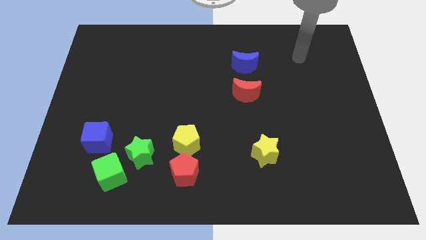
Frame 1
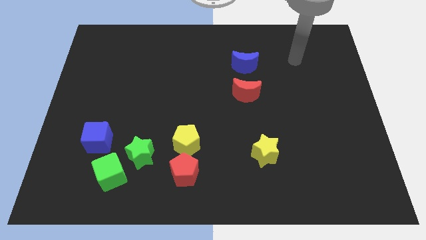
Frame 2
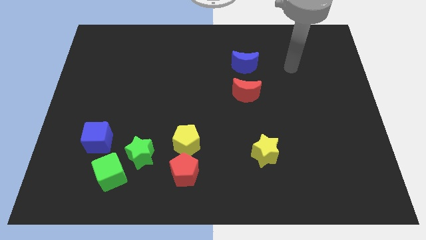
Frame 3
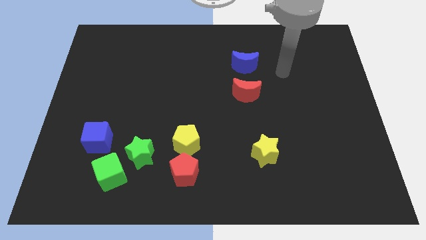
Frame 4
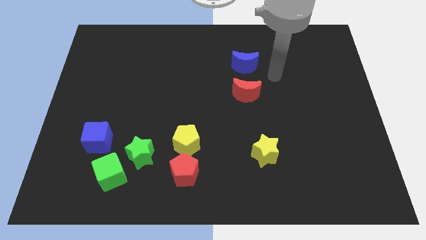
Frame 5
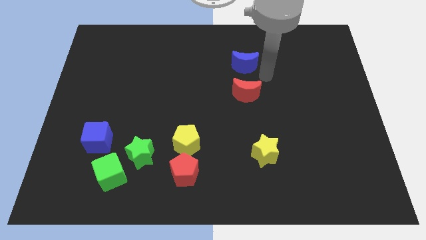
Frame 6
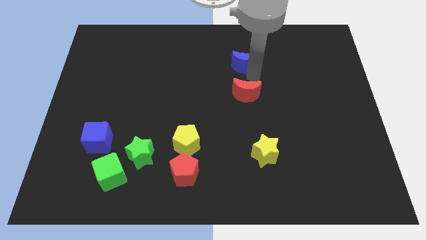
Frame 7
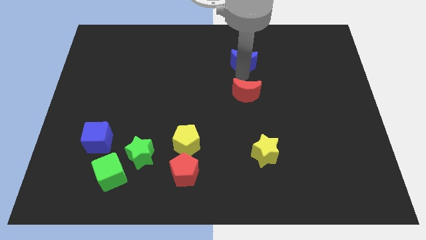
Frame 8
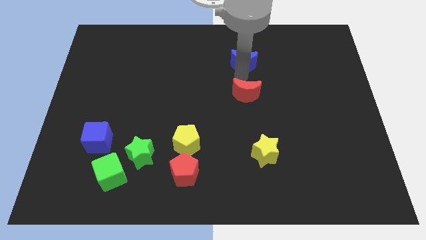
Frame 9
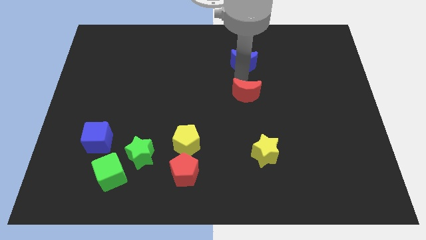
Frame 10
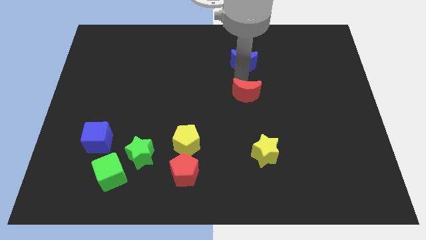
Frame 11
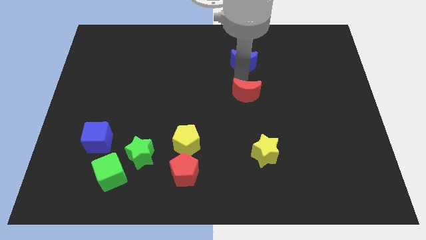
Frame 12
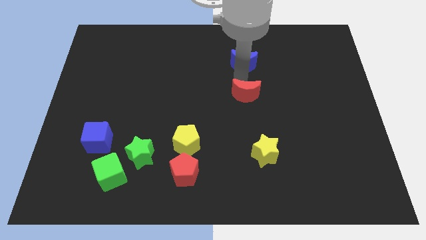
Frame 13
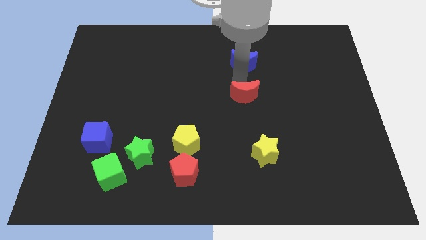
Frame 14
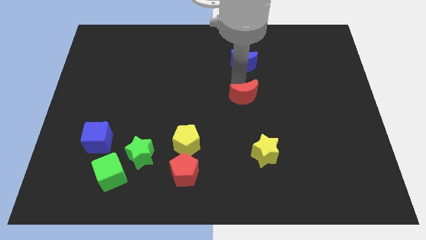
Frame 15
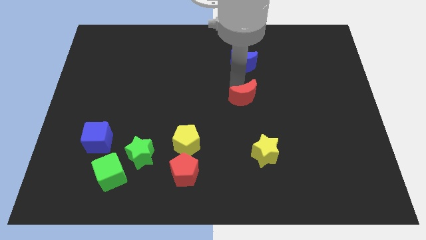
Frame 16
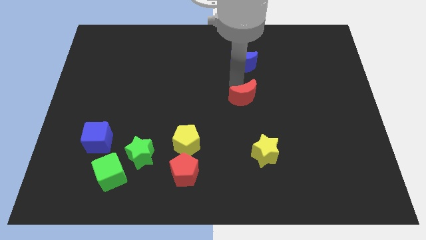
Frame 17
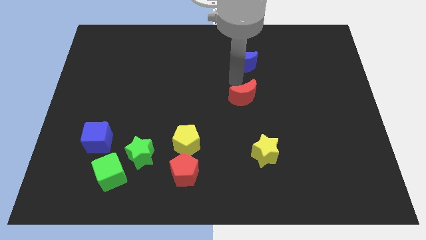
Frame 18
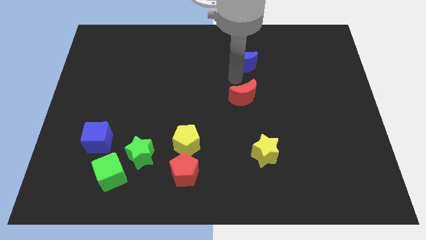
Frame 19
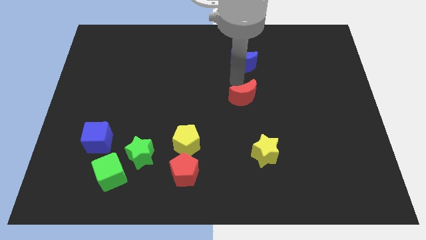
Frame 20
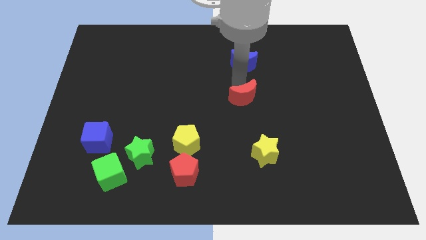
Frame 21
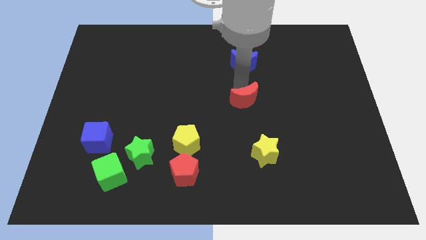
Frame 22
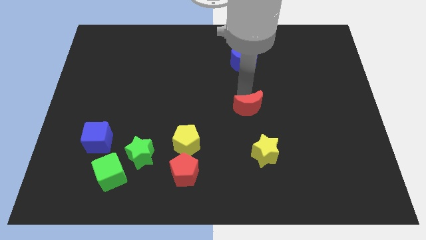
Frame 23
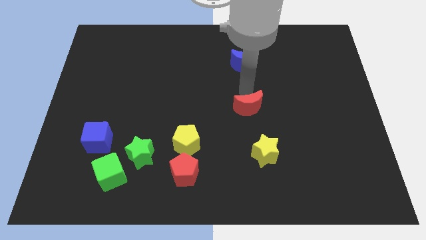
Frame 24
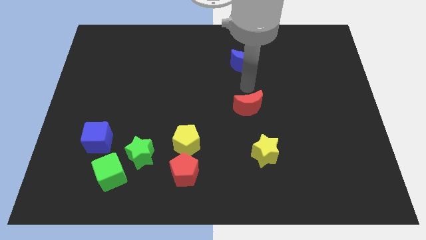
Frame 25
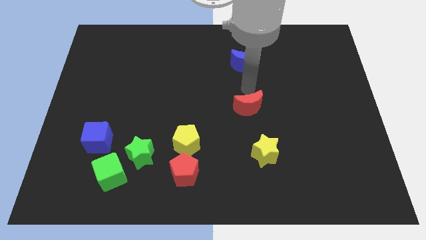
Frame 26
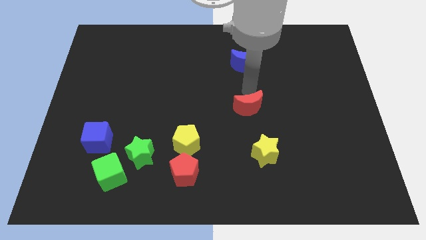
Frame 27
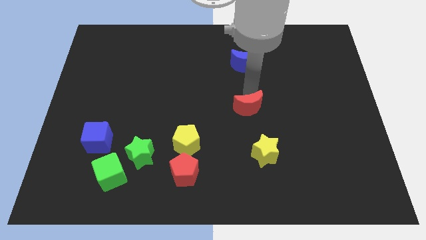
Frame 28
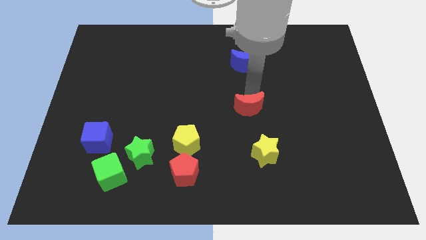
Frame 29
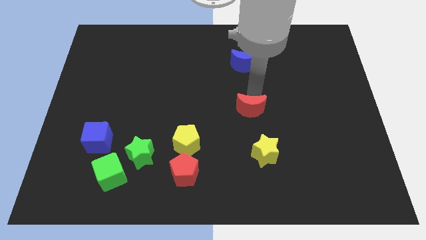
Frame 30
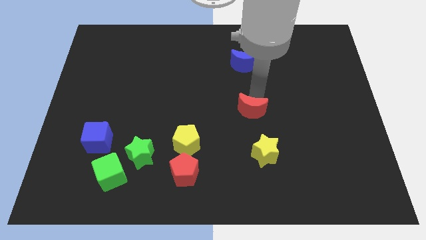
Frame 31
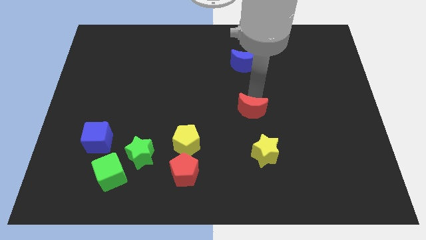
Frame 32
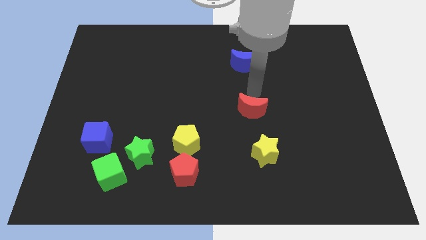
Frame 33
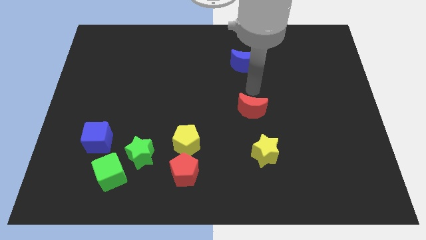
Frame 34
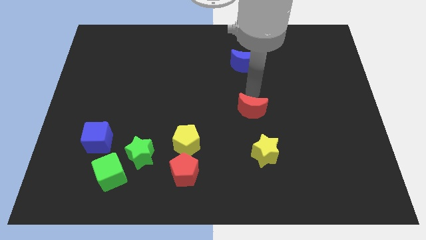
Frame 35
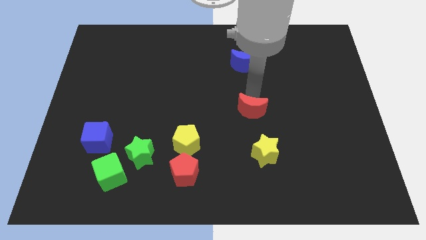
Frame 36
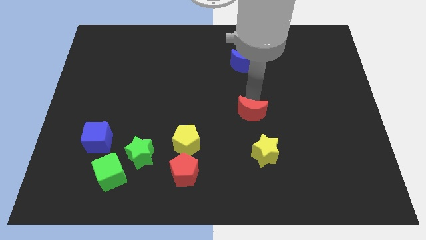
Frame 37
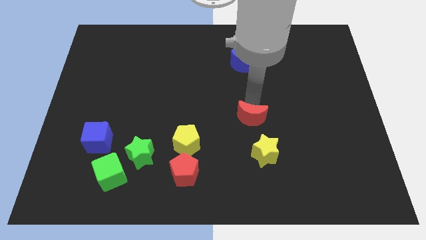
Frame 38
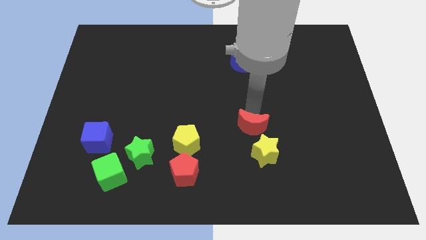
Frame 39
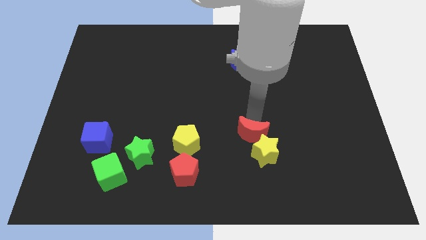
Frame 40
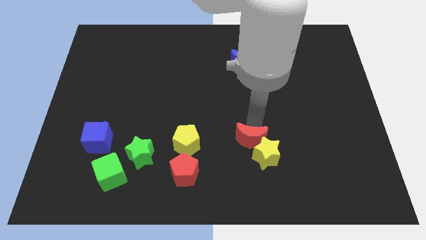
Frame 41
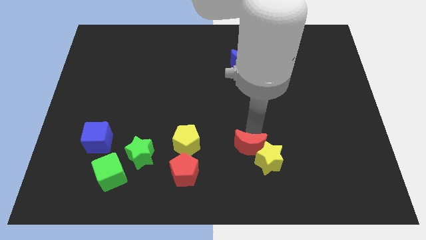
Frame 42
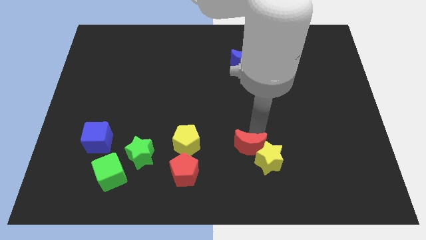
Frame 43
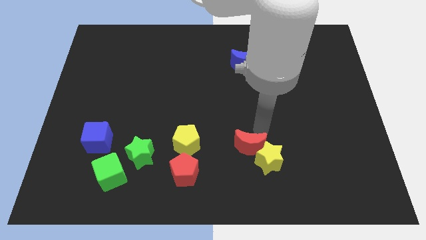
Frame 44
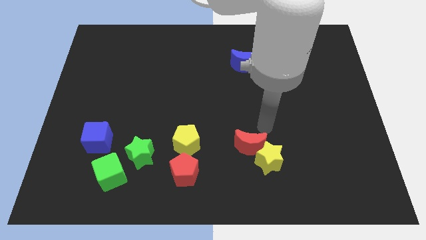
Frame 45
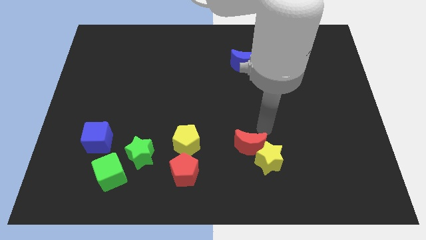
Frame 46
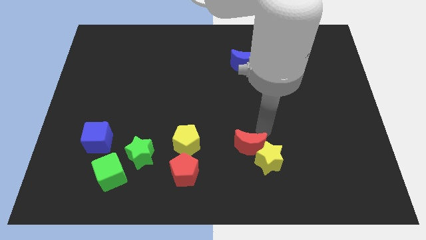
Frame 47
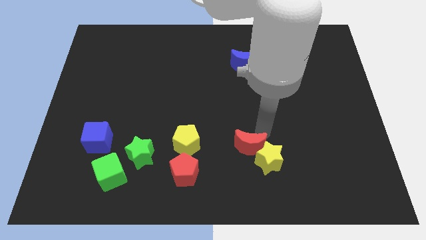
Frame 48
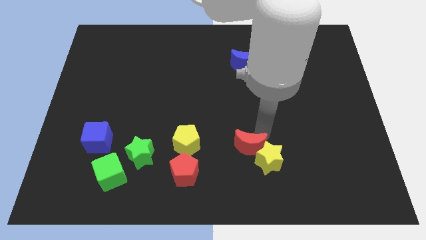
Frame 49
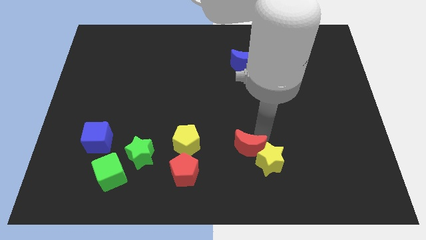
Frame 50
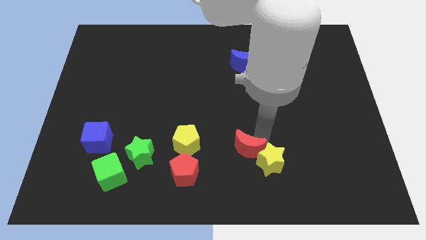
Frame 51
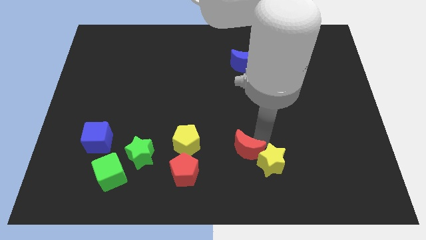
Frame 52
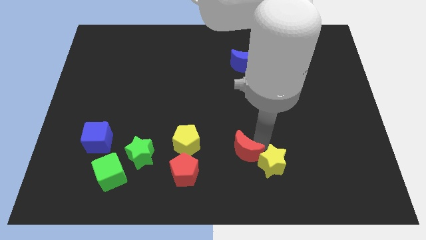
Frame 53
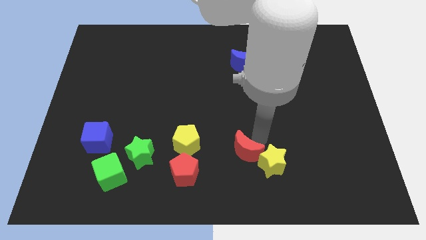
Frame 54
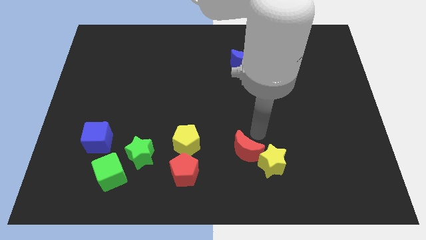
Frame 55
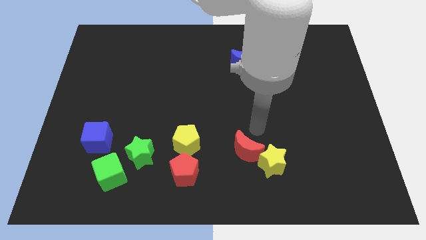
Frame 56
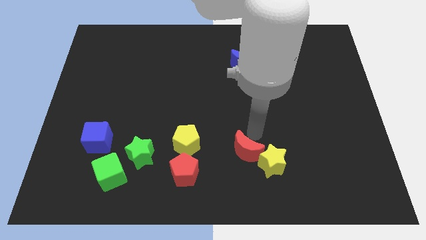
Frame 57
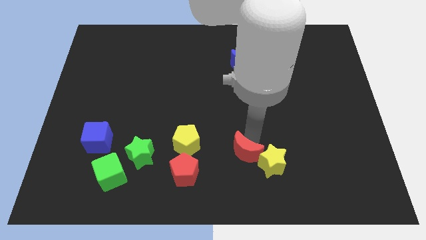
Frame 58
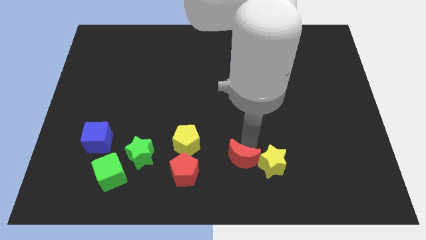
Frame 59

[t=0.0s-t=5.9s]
slide the red moon to the right side of the red pentagon

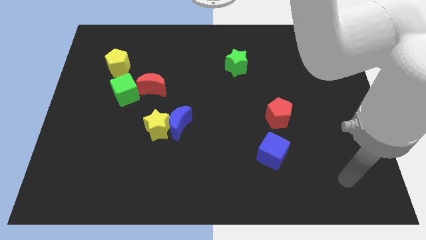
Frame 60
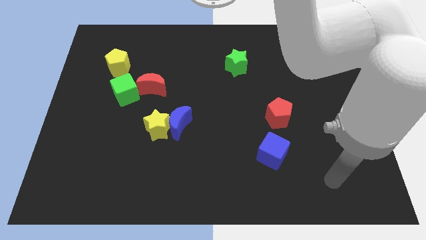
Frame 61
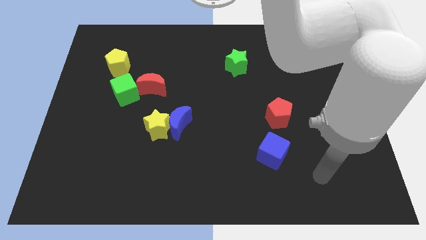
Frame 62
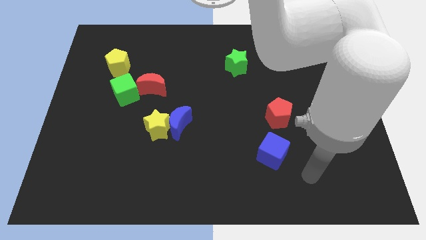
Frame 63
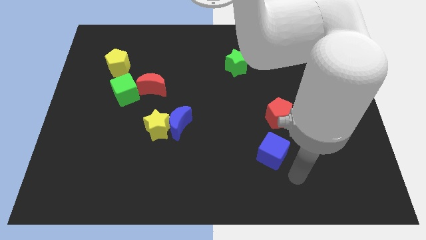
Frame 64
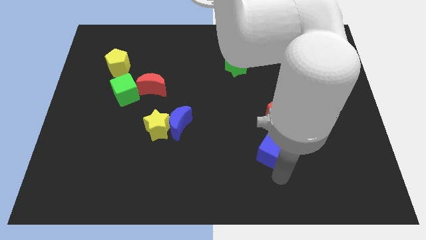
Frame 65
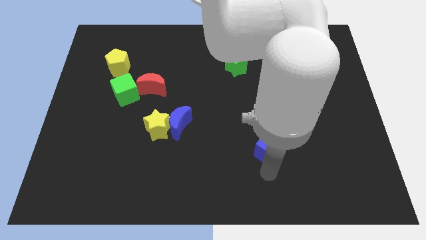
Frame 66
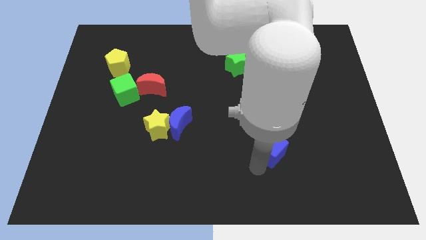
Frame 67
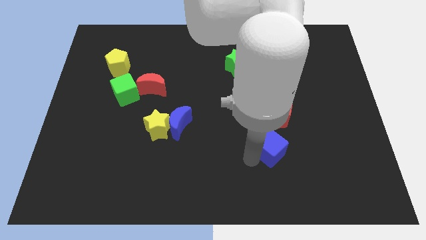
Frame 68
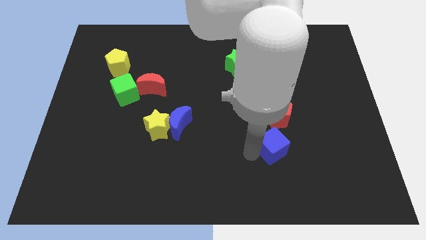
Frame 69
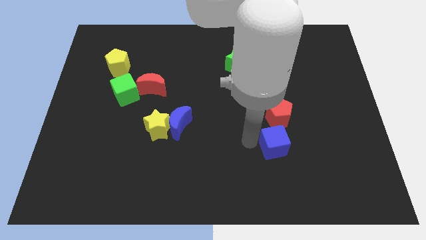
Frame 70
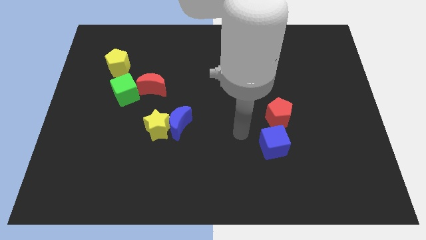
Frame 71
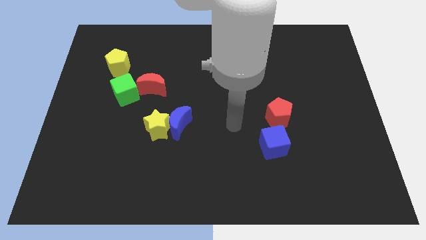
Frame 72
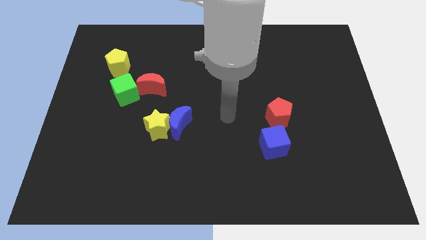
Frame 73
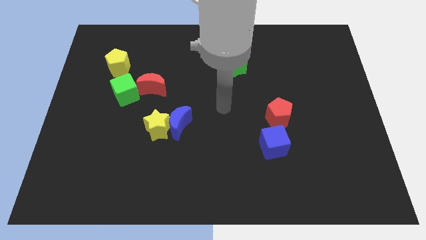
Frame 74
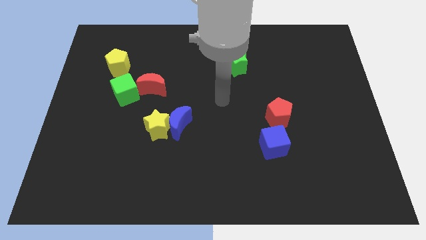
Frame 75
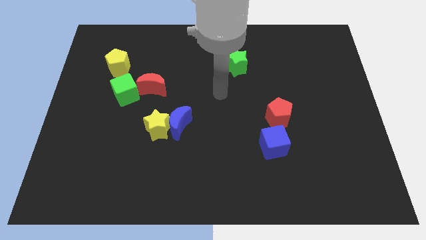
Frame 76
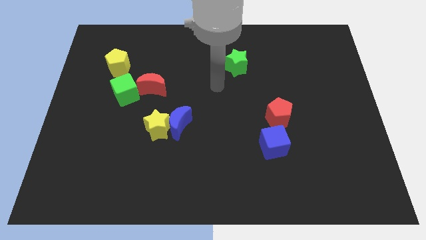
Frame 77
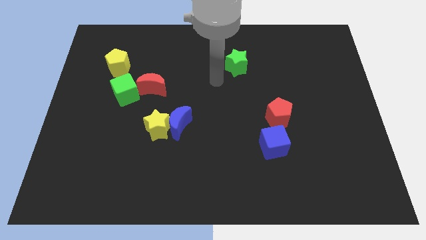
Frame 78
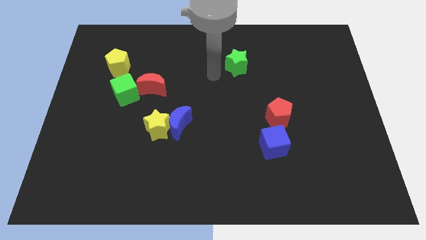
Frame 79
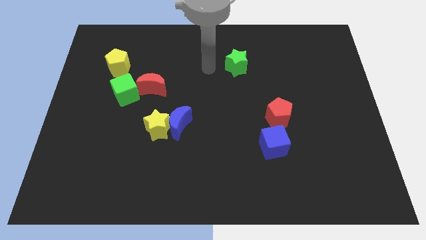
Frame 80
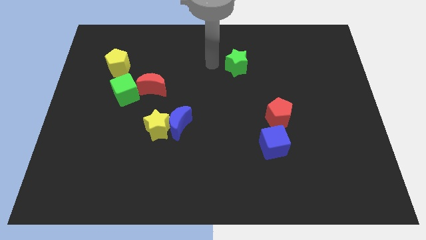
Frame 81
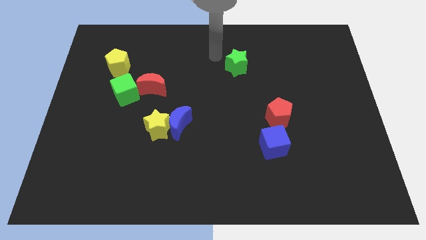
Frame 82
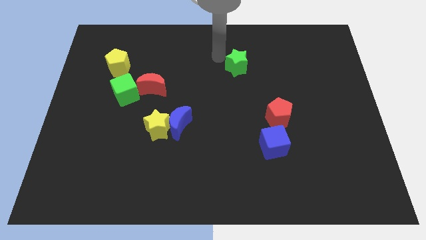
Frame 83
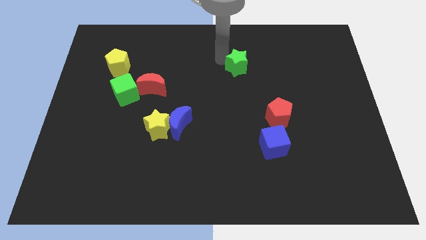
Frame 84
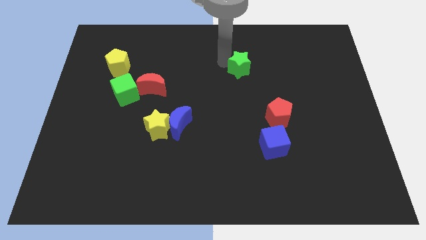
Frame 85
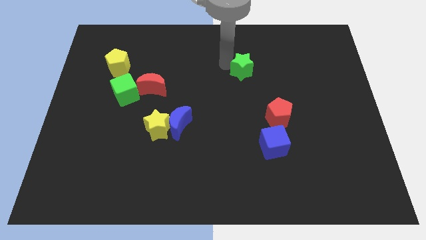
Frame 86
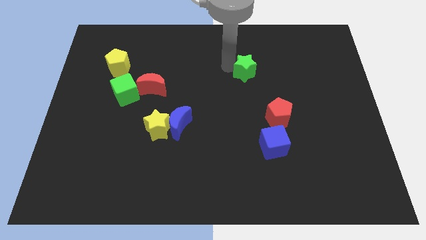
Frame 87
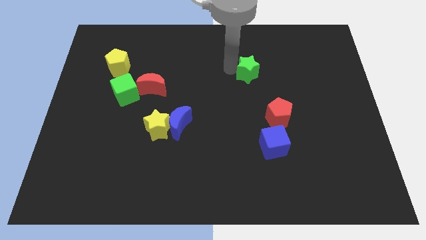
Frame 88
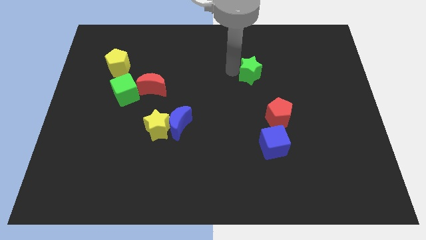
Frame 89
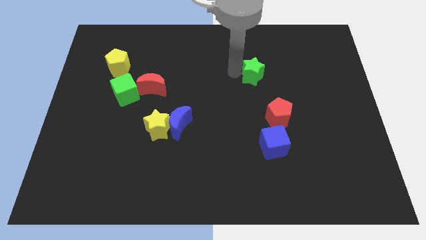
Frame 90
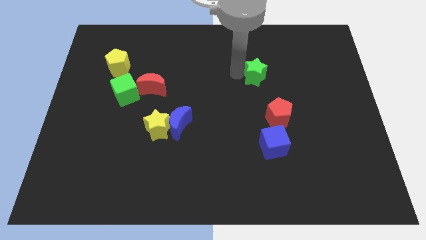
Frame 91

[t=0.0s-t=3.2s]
push the green star to the top side of the red pentagon
